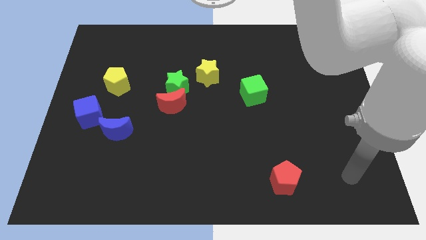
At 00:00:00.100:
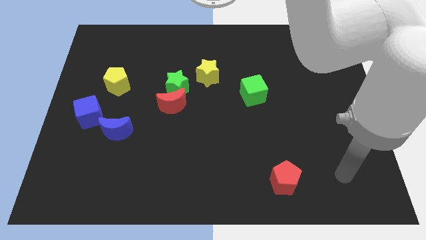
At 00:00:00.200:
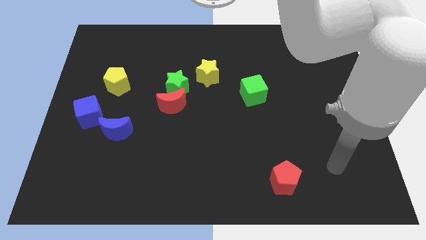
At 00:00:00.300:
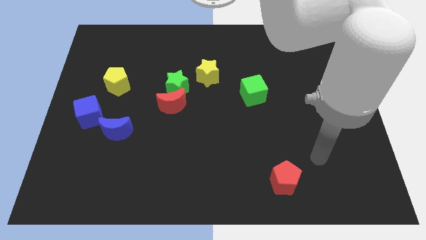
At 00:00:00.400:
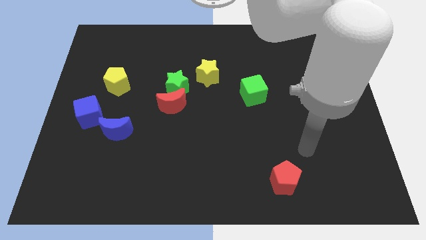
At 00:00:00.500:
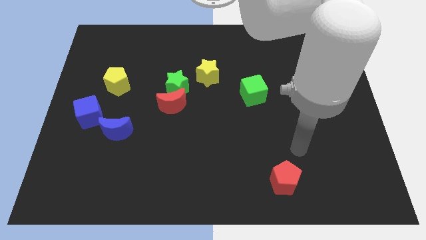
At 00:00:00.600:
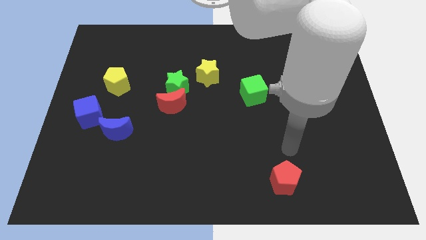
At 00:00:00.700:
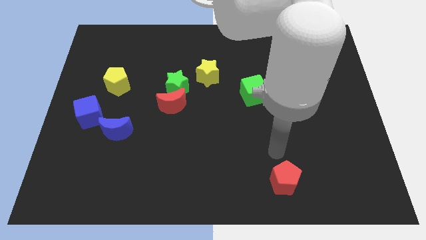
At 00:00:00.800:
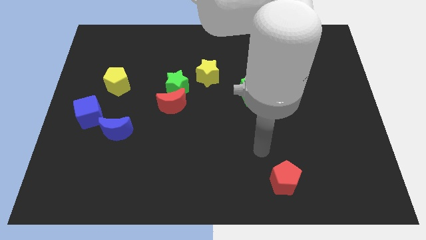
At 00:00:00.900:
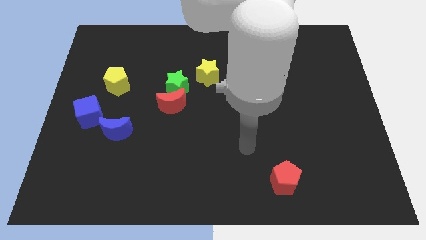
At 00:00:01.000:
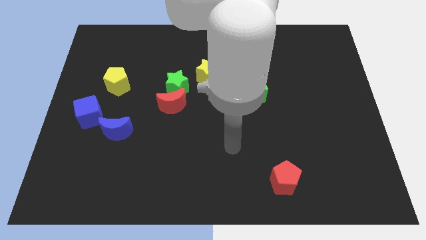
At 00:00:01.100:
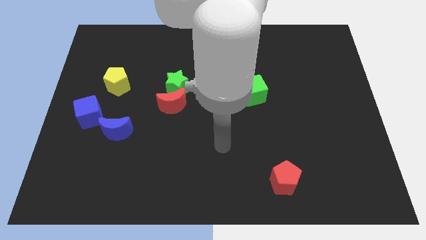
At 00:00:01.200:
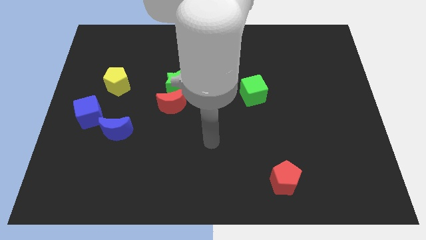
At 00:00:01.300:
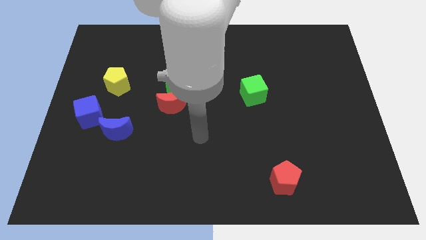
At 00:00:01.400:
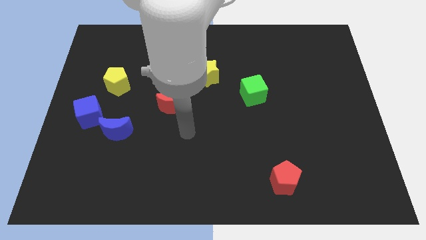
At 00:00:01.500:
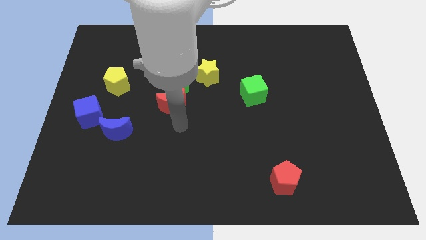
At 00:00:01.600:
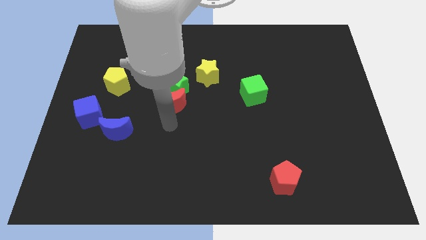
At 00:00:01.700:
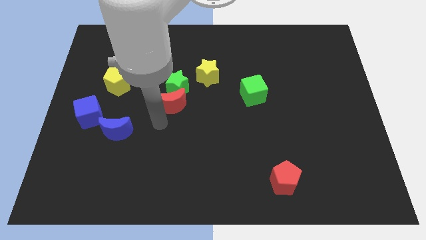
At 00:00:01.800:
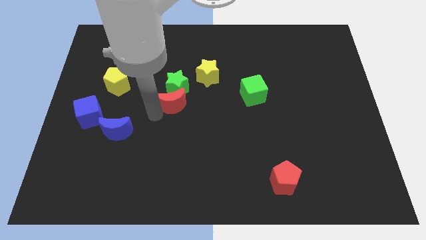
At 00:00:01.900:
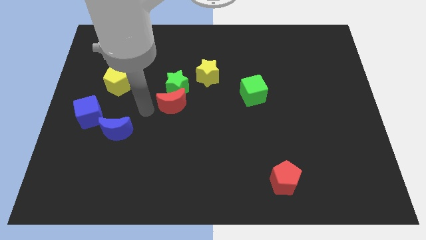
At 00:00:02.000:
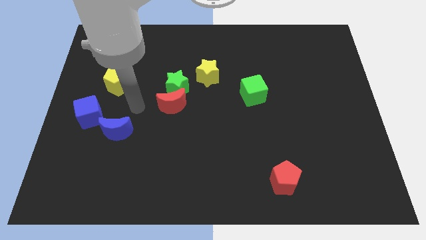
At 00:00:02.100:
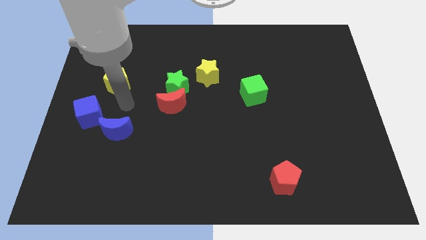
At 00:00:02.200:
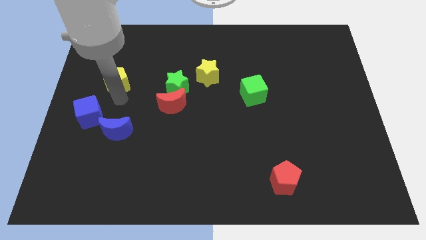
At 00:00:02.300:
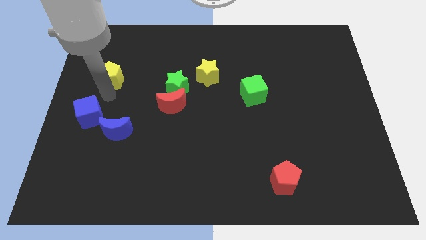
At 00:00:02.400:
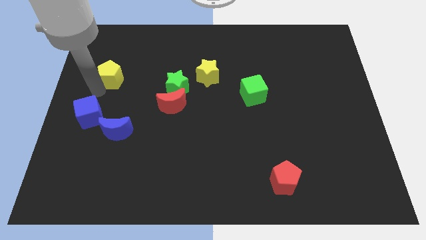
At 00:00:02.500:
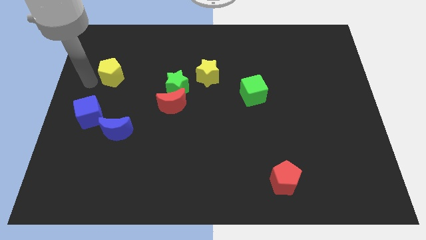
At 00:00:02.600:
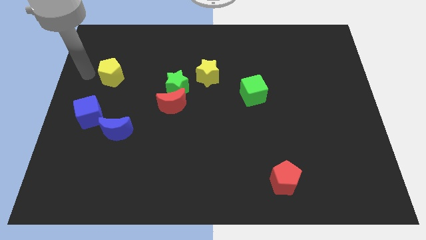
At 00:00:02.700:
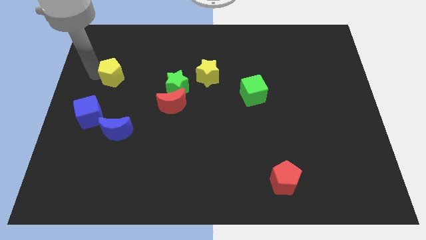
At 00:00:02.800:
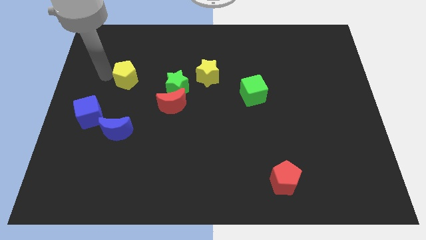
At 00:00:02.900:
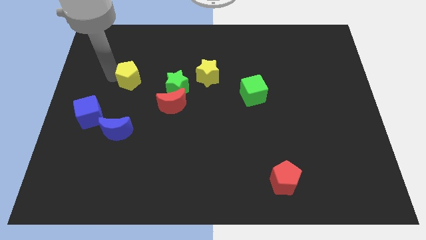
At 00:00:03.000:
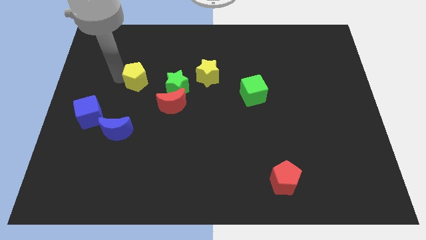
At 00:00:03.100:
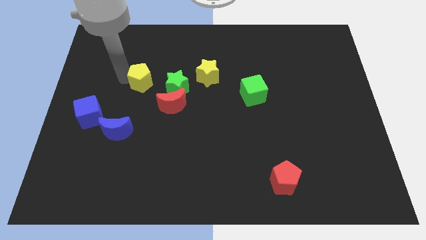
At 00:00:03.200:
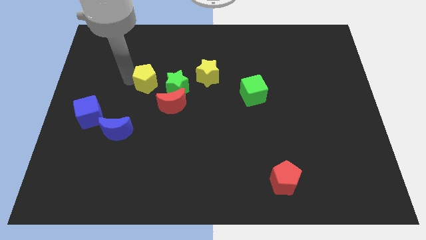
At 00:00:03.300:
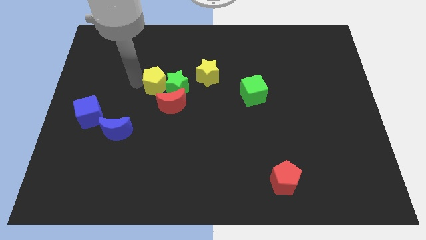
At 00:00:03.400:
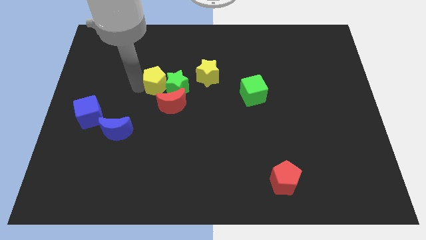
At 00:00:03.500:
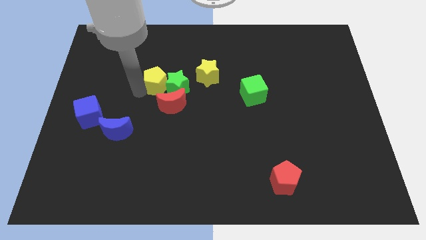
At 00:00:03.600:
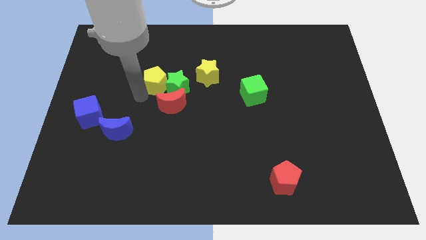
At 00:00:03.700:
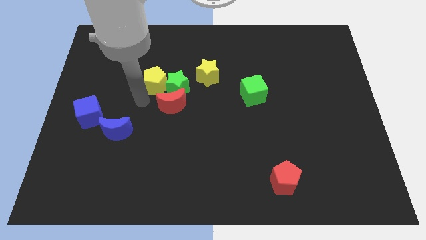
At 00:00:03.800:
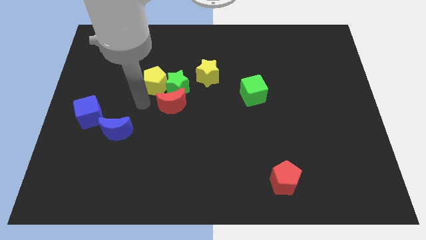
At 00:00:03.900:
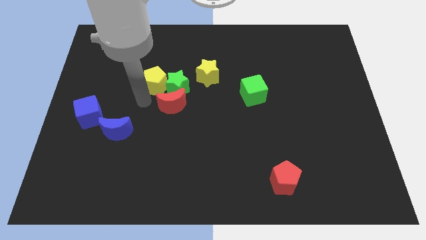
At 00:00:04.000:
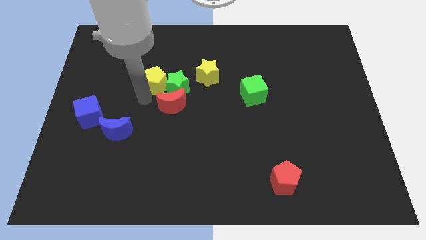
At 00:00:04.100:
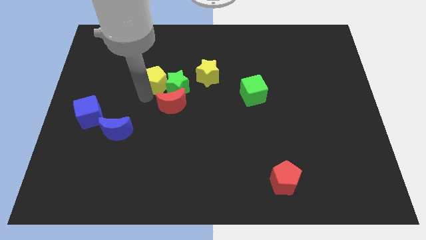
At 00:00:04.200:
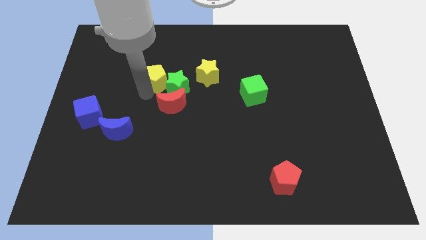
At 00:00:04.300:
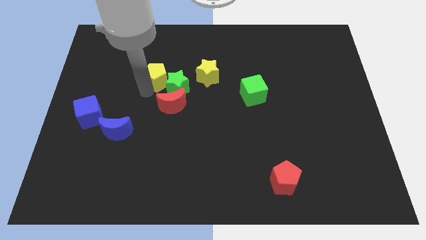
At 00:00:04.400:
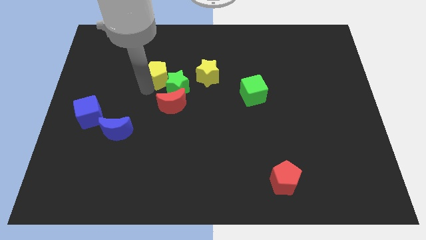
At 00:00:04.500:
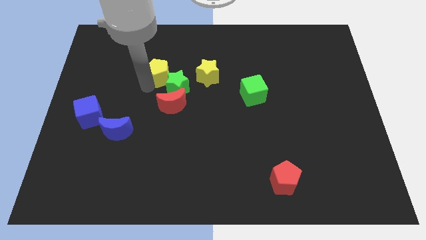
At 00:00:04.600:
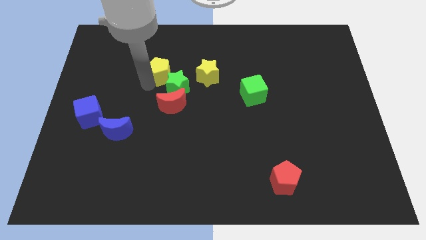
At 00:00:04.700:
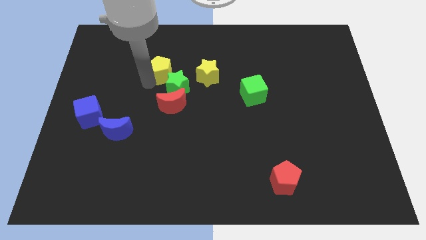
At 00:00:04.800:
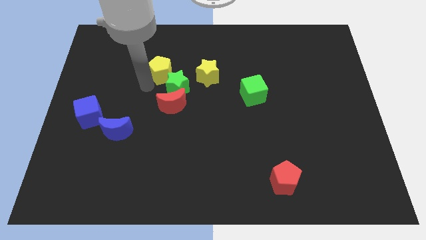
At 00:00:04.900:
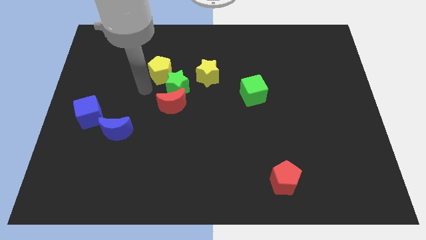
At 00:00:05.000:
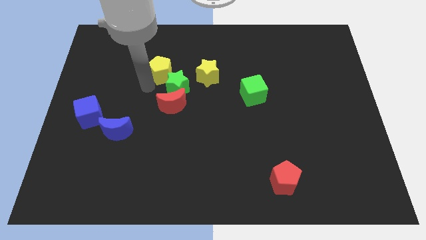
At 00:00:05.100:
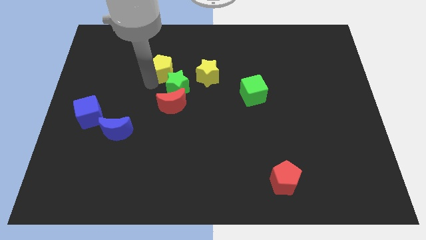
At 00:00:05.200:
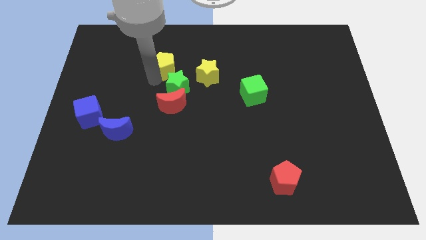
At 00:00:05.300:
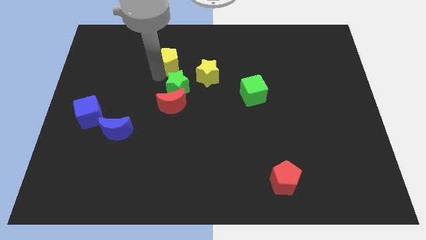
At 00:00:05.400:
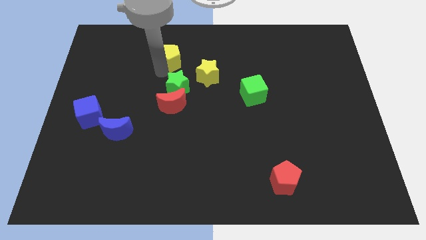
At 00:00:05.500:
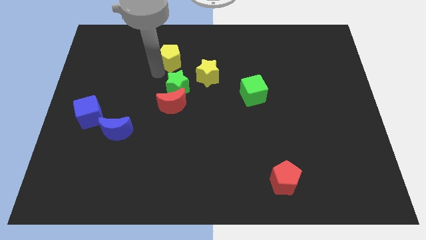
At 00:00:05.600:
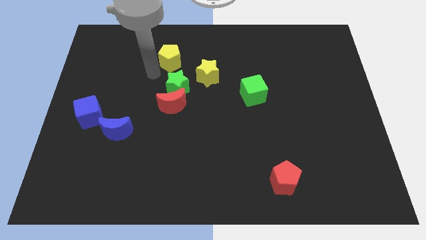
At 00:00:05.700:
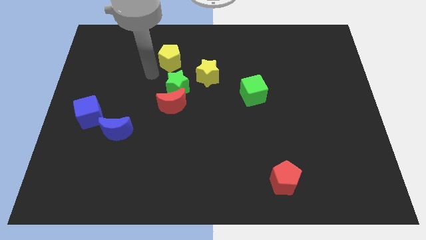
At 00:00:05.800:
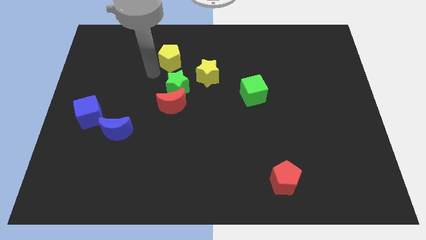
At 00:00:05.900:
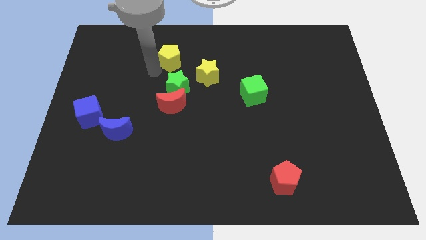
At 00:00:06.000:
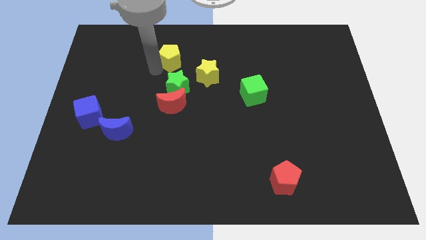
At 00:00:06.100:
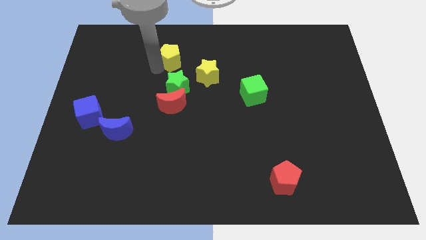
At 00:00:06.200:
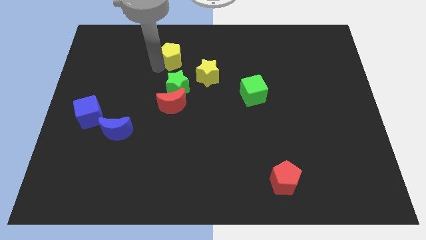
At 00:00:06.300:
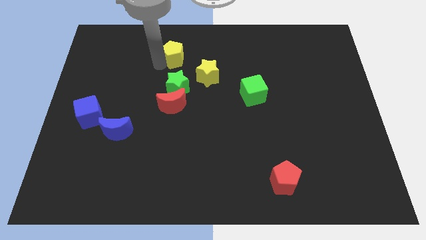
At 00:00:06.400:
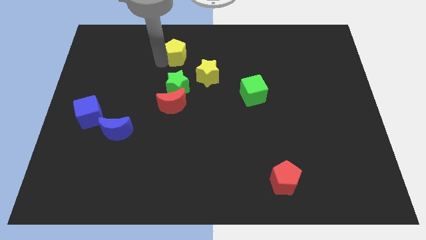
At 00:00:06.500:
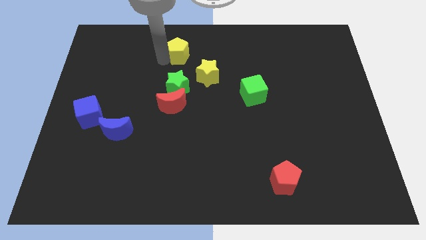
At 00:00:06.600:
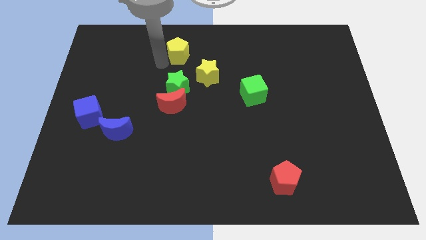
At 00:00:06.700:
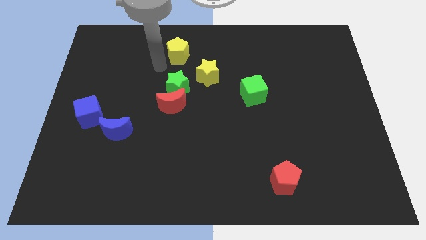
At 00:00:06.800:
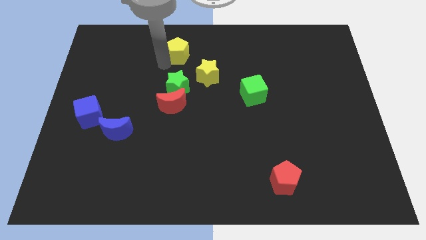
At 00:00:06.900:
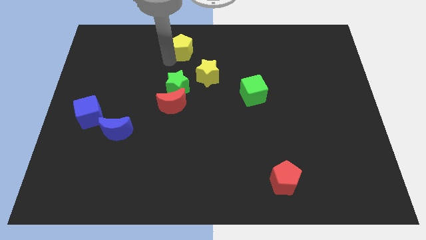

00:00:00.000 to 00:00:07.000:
move the yellow pentagon to the top side

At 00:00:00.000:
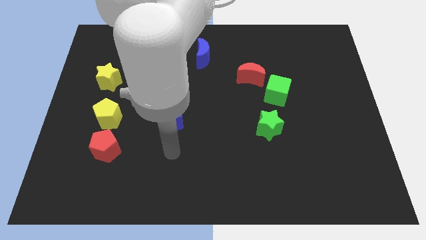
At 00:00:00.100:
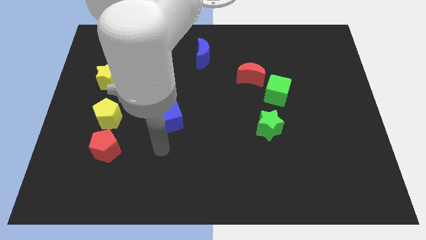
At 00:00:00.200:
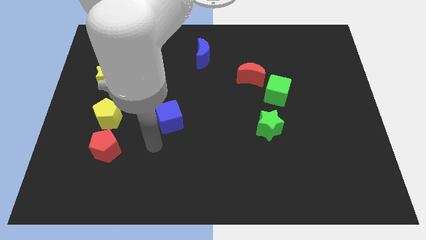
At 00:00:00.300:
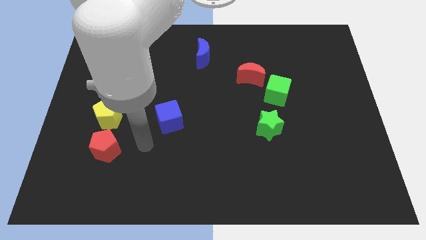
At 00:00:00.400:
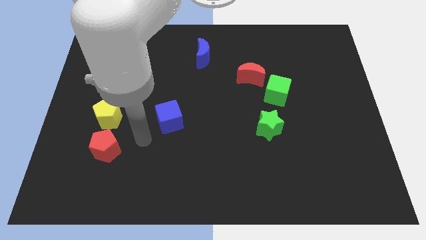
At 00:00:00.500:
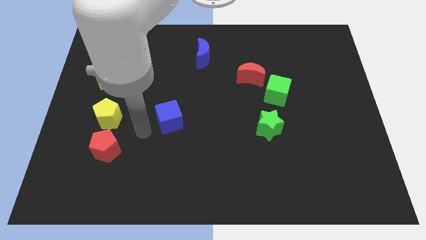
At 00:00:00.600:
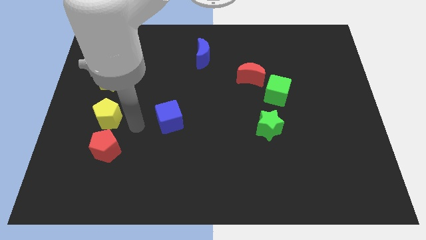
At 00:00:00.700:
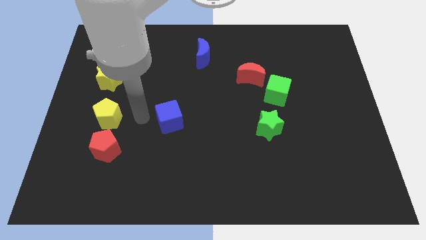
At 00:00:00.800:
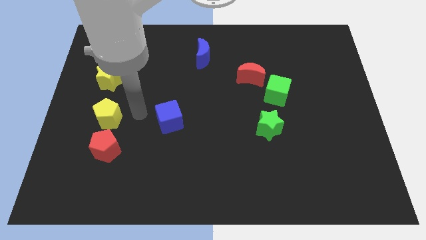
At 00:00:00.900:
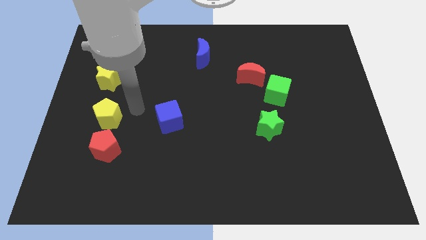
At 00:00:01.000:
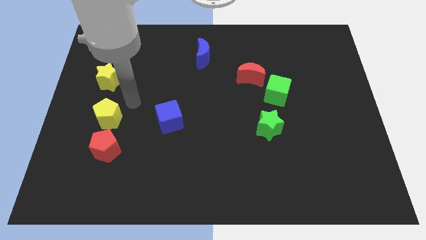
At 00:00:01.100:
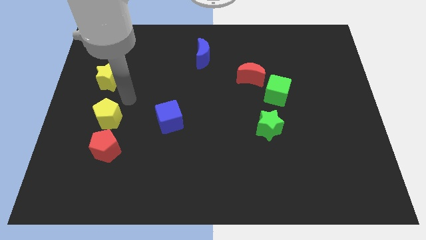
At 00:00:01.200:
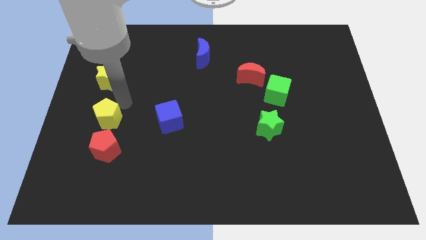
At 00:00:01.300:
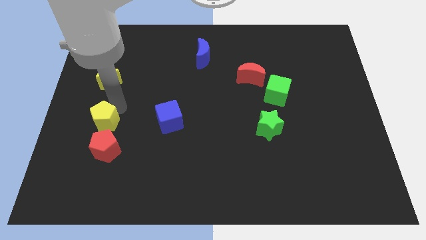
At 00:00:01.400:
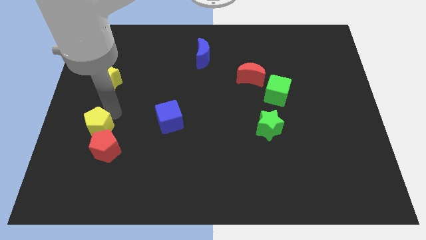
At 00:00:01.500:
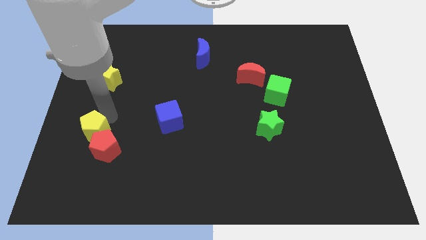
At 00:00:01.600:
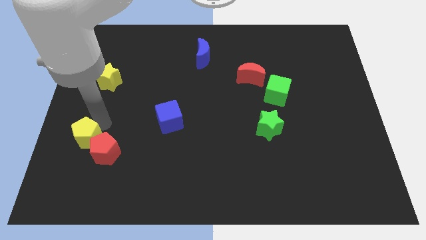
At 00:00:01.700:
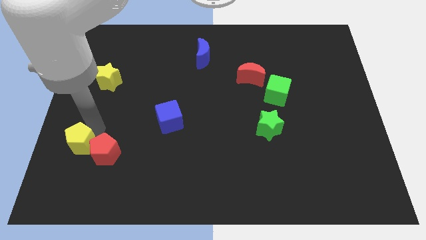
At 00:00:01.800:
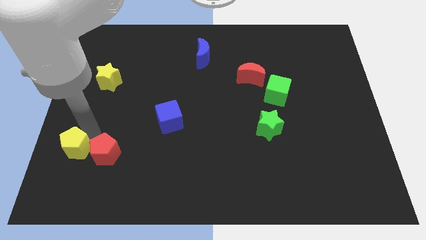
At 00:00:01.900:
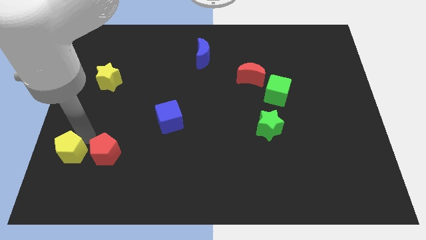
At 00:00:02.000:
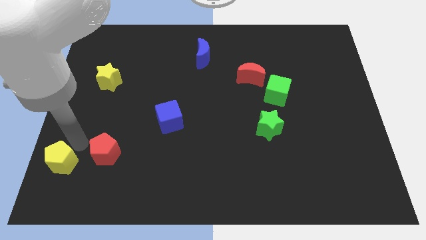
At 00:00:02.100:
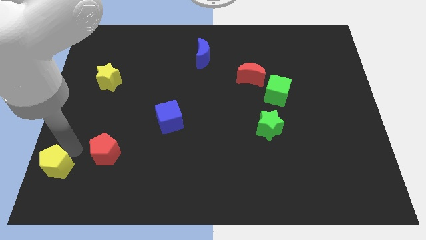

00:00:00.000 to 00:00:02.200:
push the yellow pentagon to the bottom left
